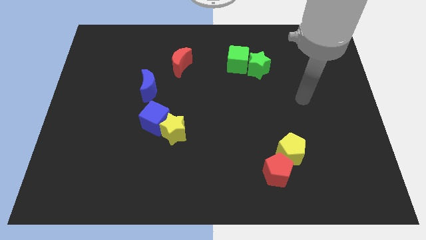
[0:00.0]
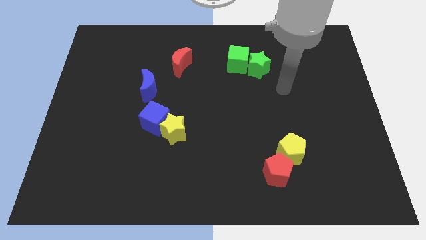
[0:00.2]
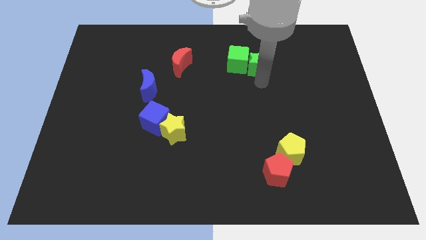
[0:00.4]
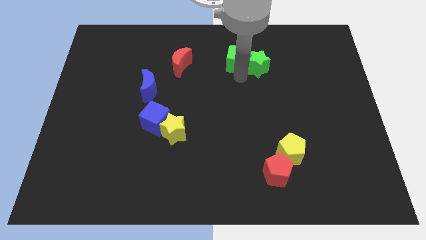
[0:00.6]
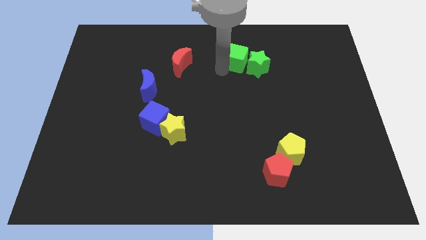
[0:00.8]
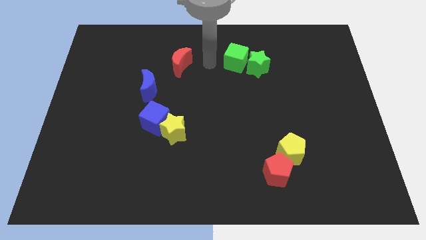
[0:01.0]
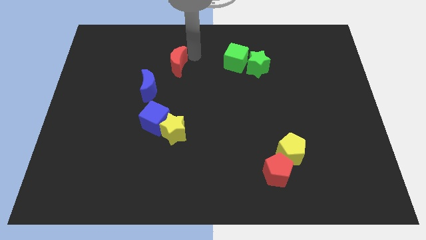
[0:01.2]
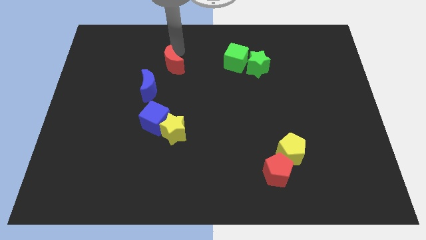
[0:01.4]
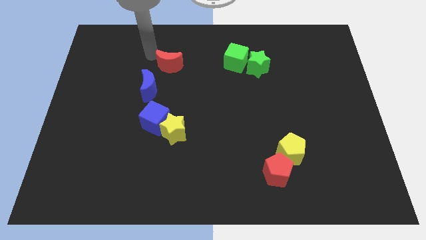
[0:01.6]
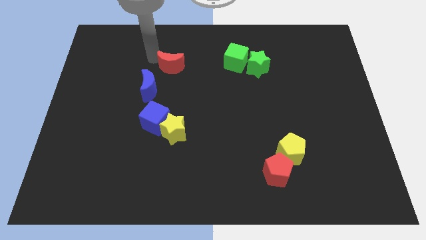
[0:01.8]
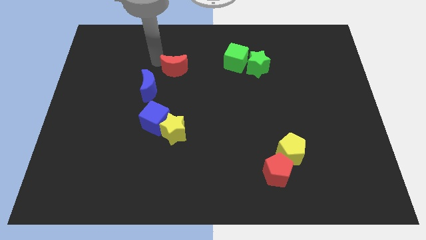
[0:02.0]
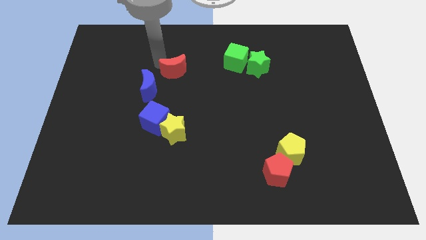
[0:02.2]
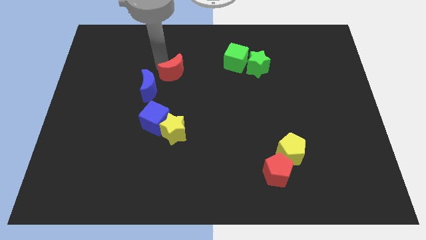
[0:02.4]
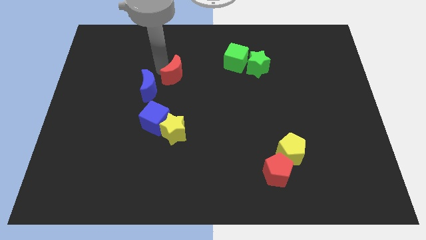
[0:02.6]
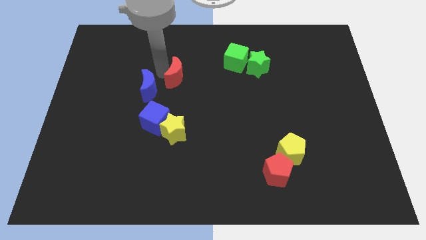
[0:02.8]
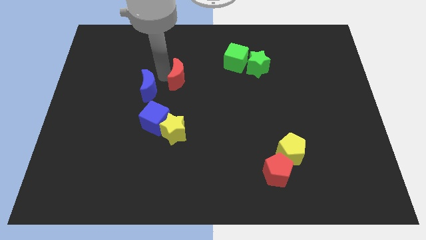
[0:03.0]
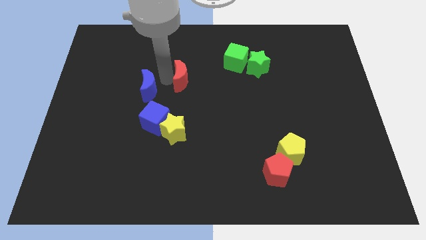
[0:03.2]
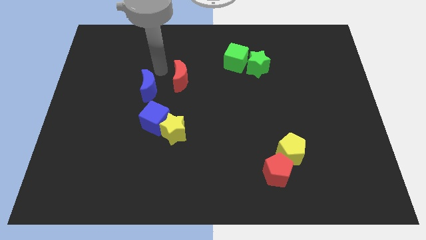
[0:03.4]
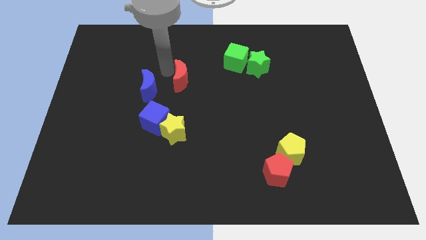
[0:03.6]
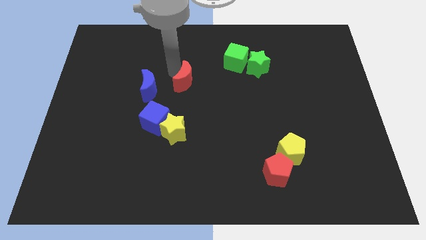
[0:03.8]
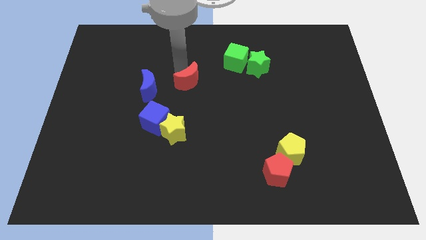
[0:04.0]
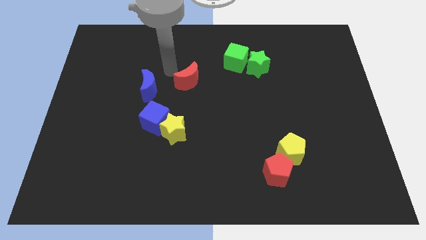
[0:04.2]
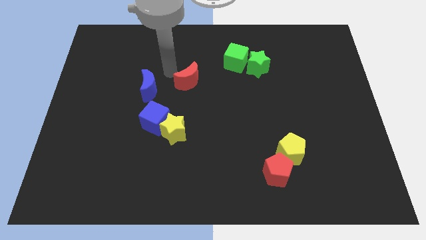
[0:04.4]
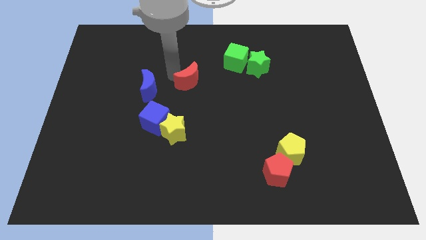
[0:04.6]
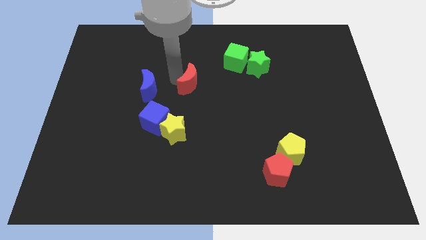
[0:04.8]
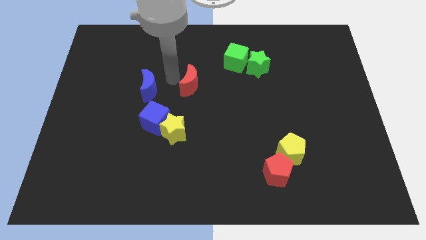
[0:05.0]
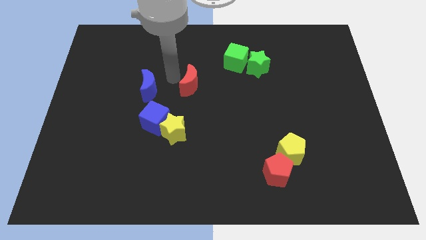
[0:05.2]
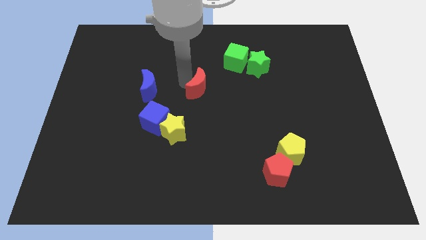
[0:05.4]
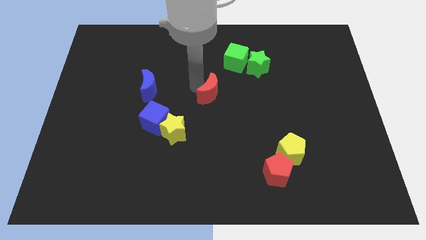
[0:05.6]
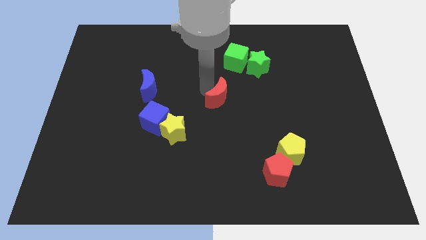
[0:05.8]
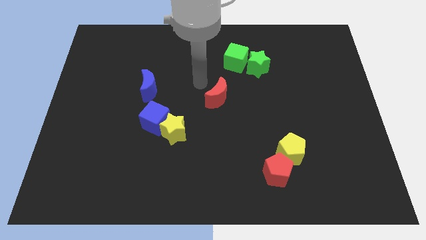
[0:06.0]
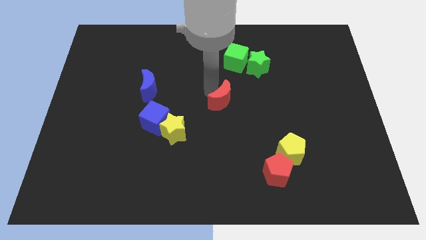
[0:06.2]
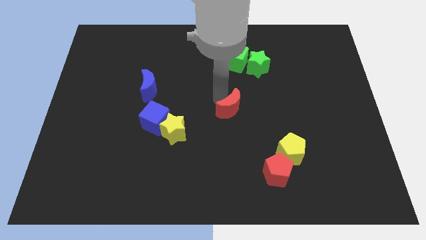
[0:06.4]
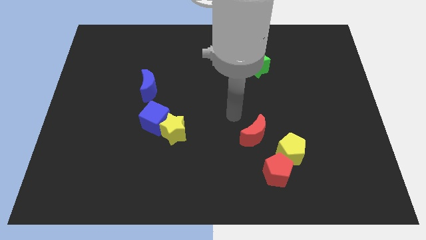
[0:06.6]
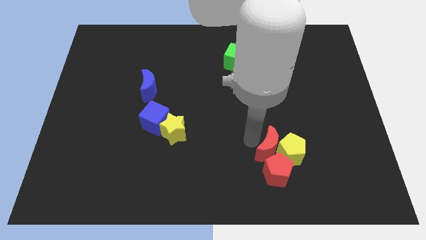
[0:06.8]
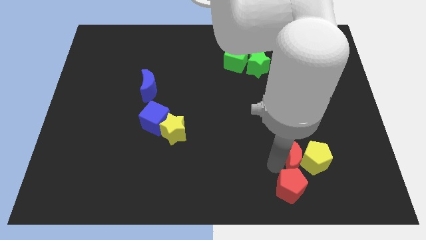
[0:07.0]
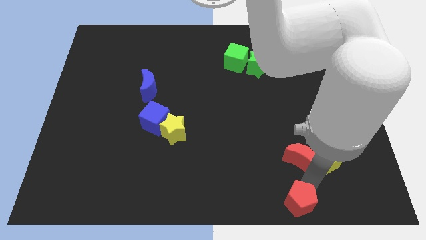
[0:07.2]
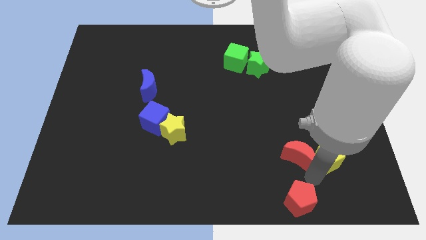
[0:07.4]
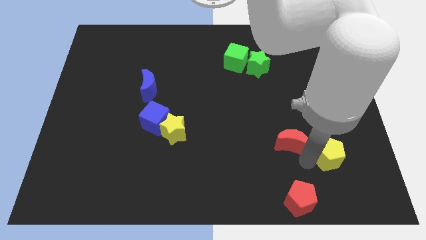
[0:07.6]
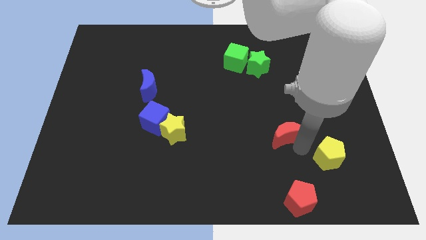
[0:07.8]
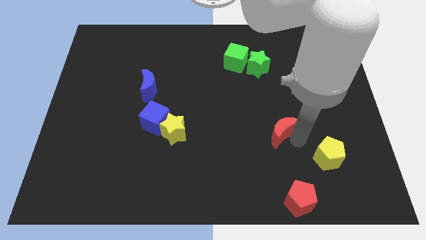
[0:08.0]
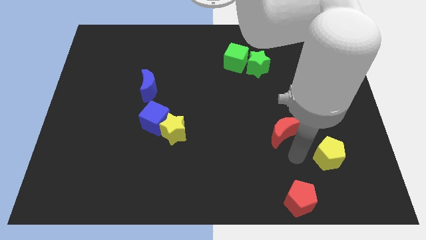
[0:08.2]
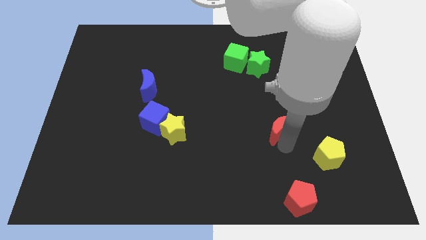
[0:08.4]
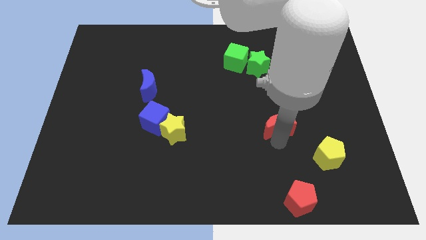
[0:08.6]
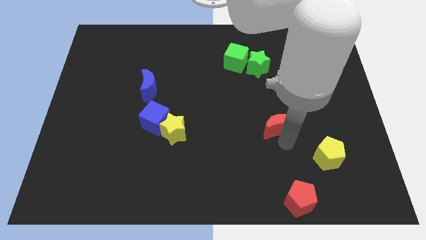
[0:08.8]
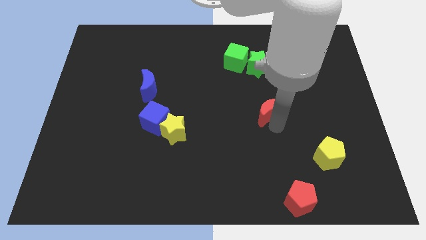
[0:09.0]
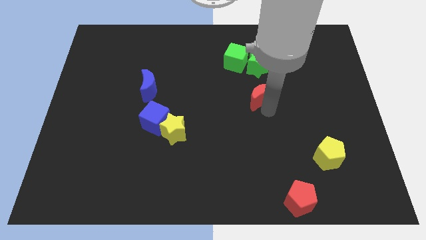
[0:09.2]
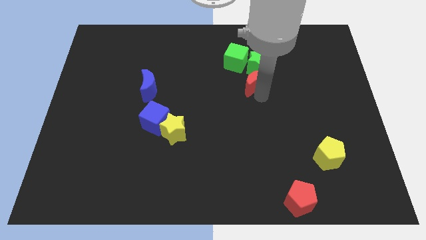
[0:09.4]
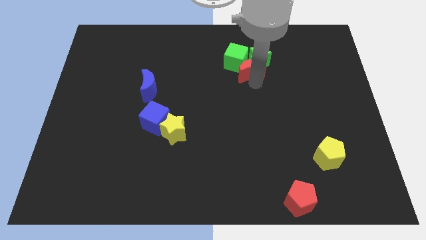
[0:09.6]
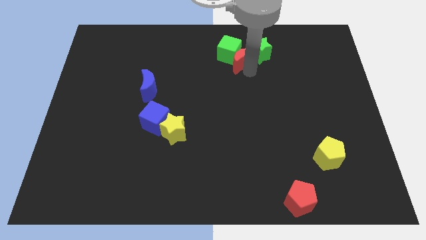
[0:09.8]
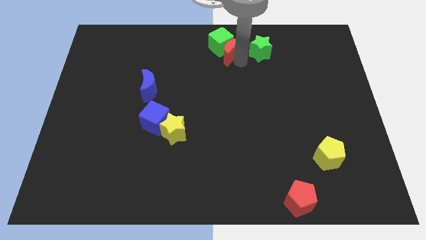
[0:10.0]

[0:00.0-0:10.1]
move the red moon to the towards your base

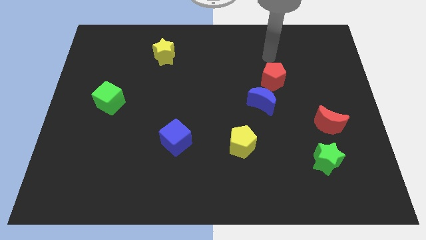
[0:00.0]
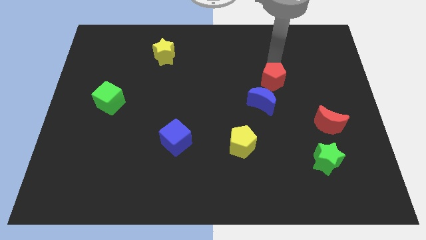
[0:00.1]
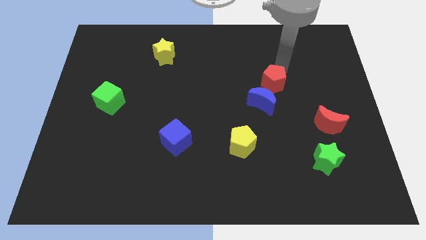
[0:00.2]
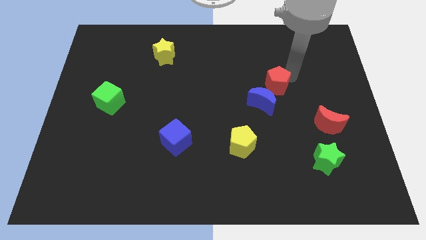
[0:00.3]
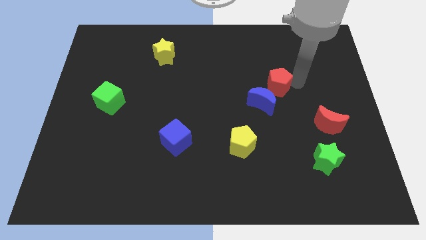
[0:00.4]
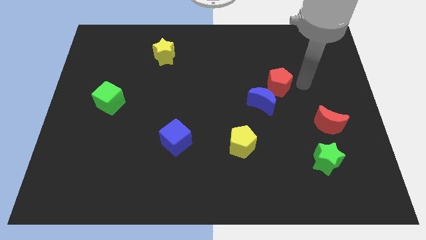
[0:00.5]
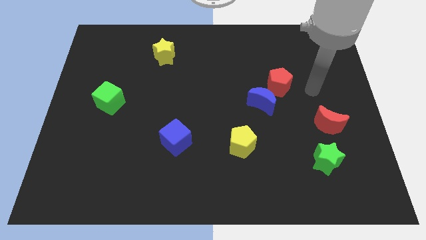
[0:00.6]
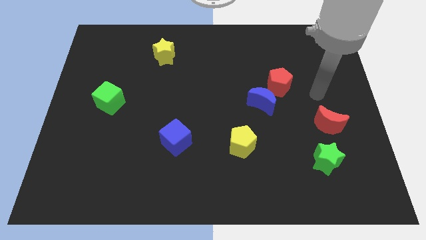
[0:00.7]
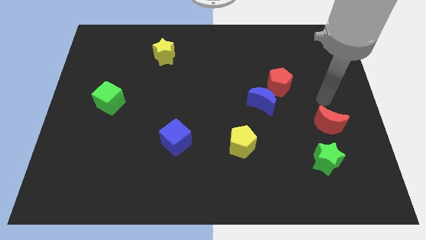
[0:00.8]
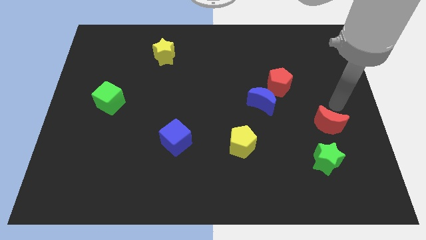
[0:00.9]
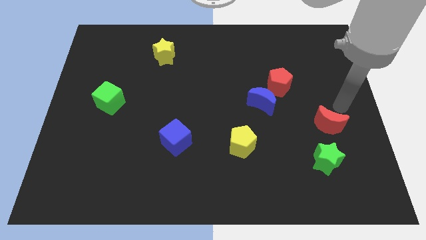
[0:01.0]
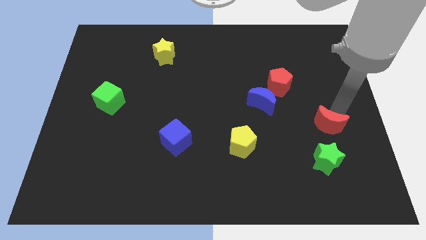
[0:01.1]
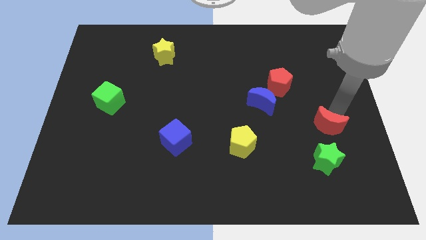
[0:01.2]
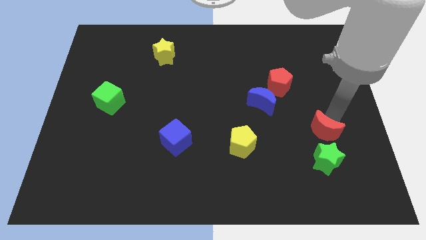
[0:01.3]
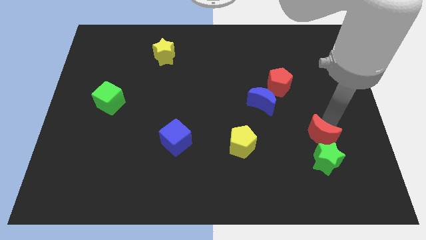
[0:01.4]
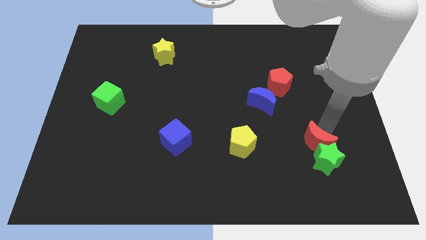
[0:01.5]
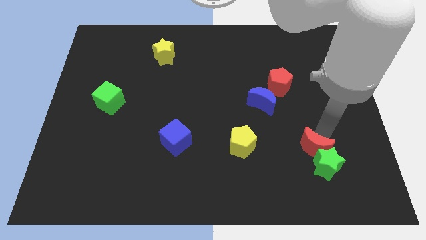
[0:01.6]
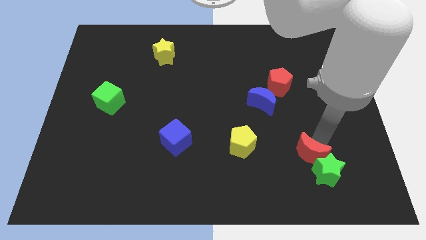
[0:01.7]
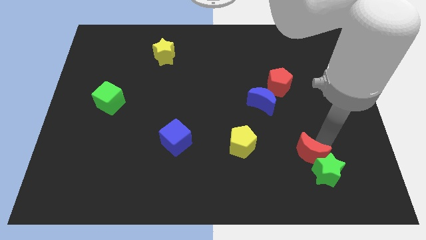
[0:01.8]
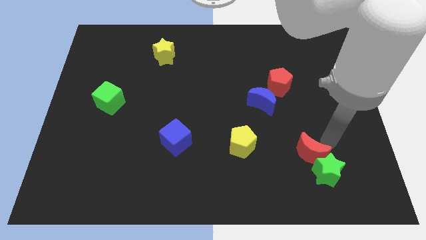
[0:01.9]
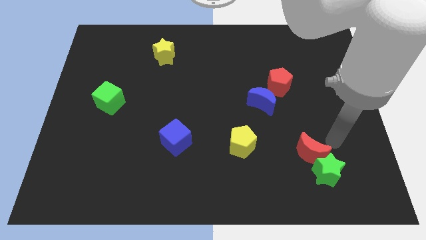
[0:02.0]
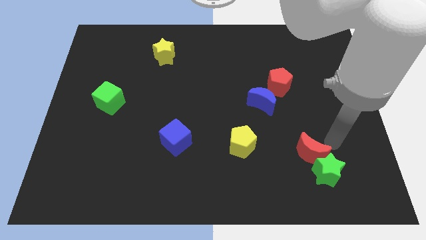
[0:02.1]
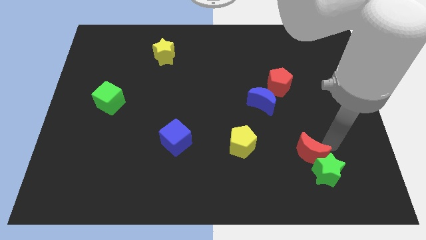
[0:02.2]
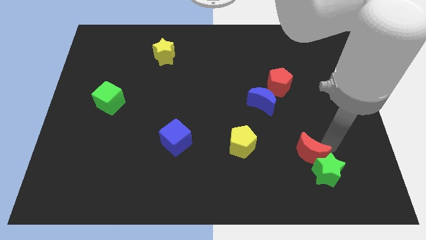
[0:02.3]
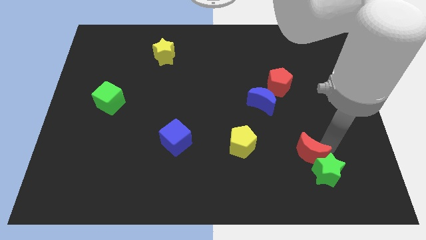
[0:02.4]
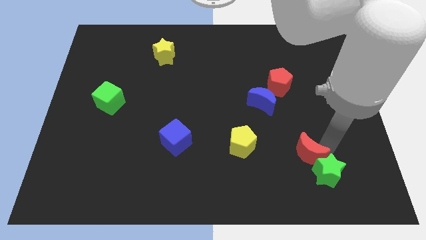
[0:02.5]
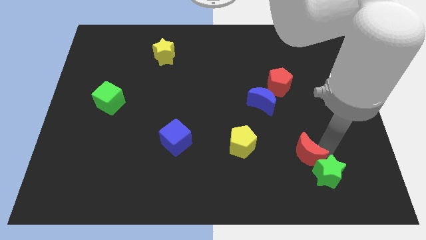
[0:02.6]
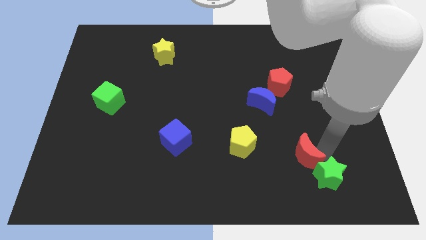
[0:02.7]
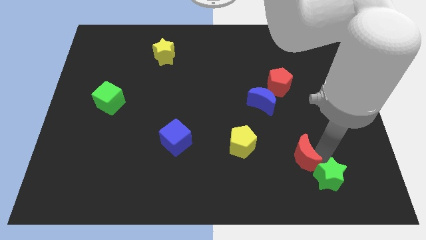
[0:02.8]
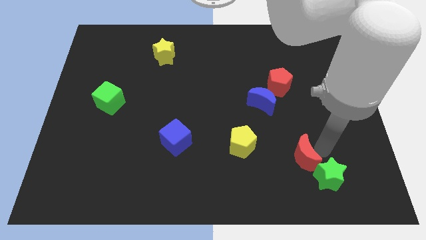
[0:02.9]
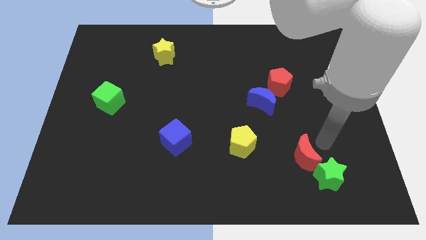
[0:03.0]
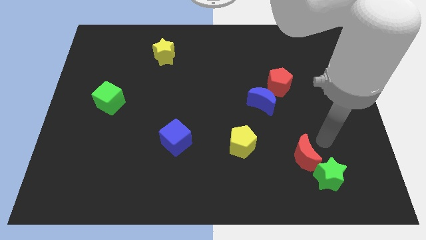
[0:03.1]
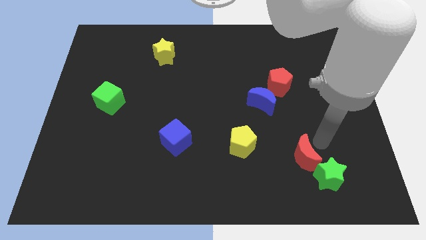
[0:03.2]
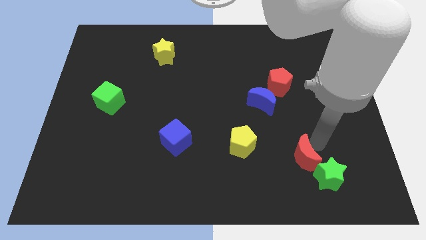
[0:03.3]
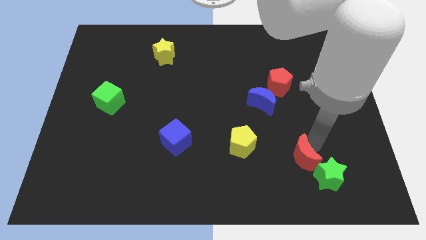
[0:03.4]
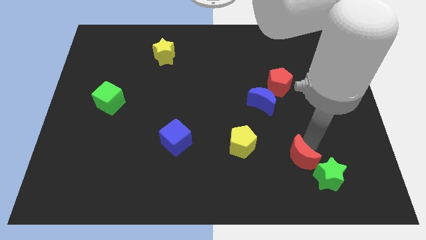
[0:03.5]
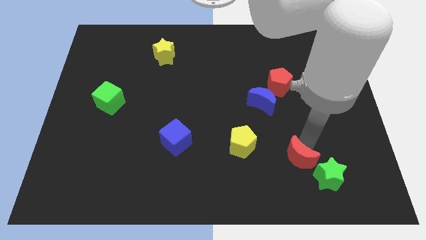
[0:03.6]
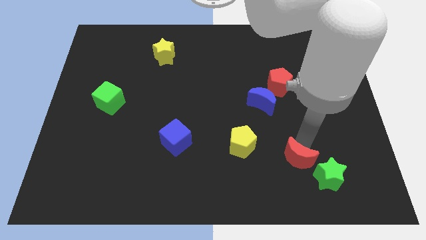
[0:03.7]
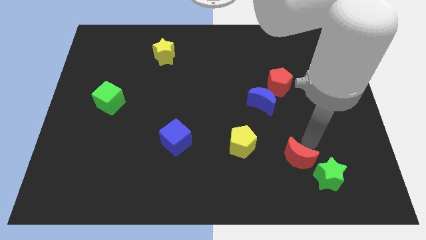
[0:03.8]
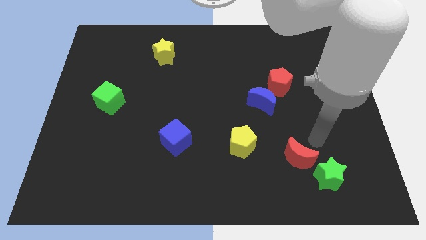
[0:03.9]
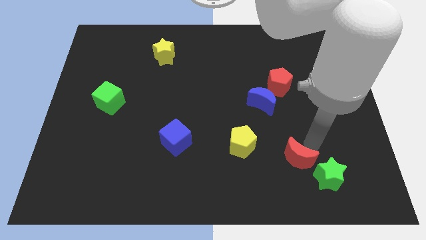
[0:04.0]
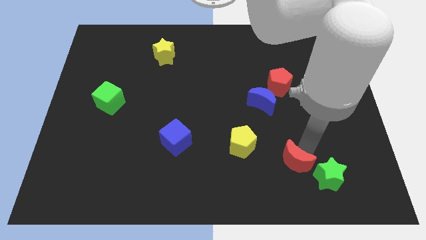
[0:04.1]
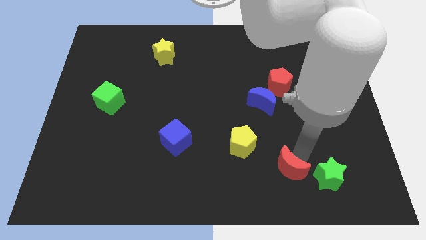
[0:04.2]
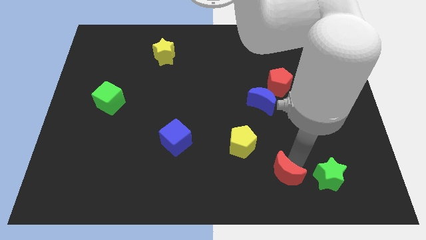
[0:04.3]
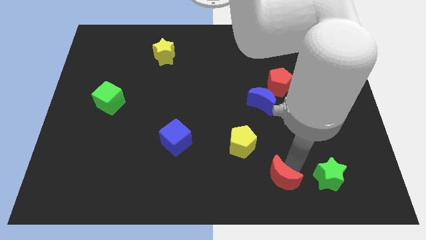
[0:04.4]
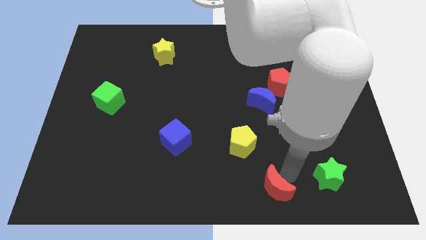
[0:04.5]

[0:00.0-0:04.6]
push the red moon to the bottom side
